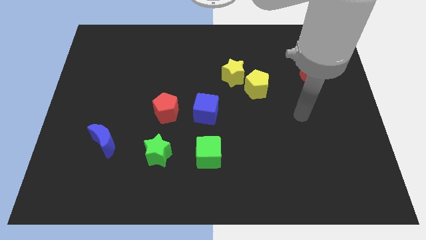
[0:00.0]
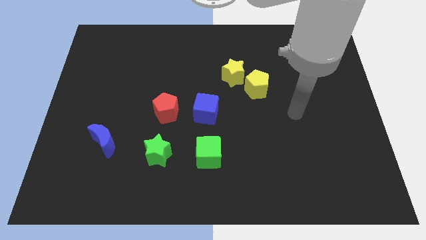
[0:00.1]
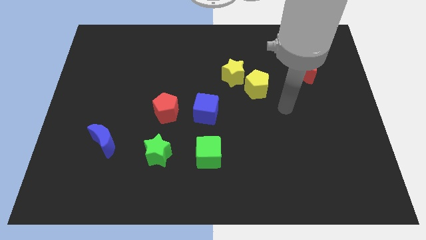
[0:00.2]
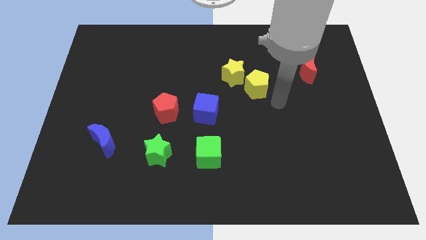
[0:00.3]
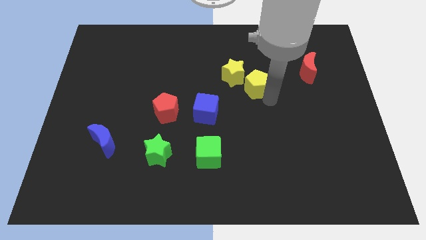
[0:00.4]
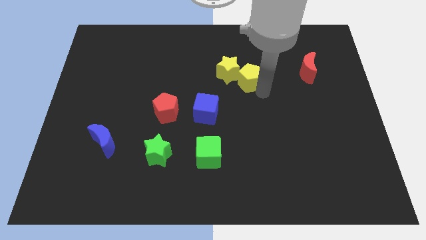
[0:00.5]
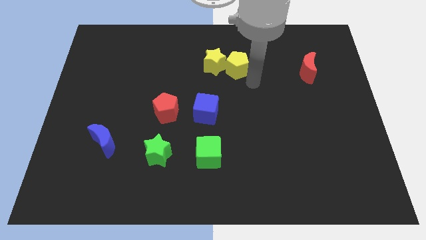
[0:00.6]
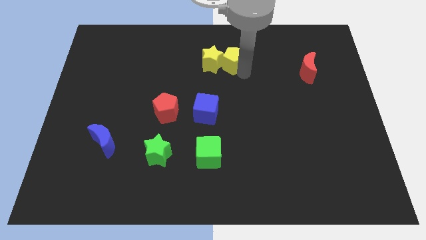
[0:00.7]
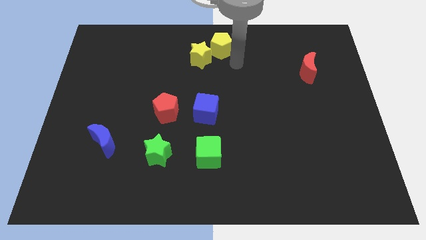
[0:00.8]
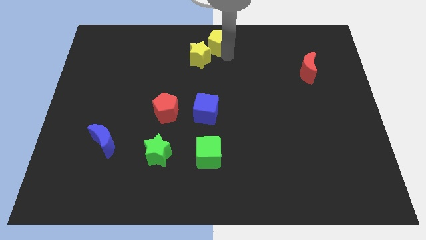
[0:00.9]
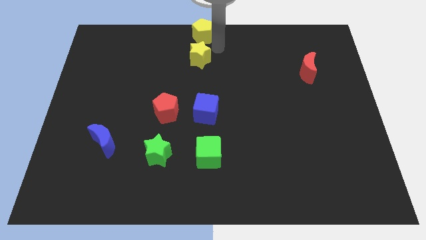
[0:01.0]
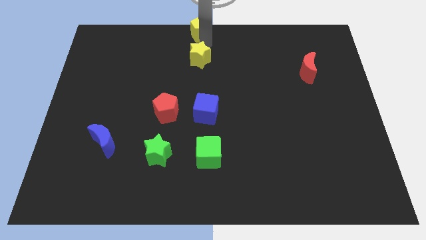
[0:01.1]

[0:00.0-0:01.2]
separate the yellow star from the yellow pentagon

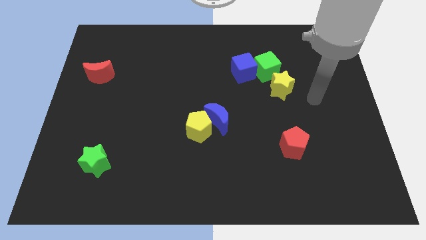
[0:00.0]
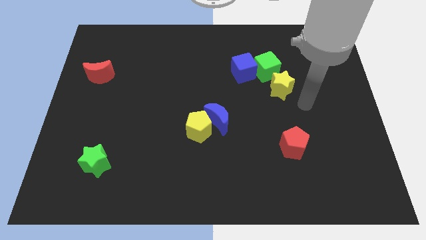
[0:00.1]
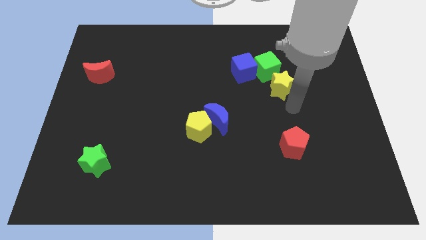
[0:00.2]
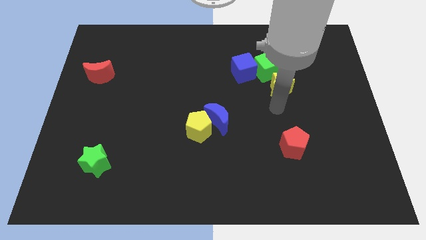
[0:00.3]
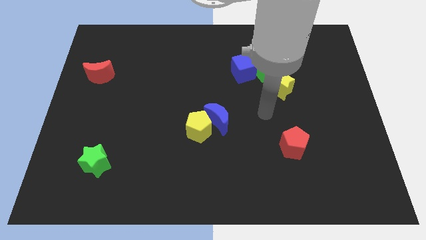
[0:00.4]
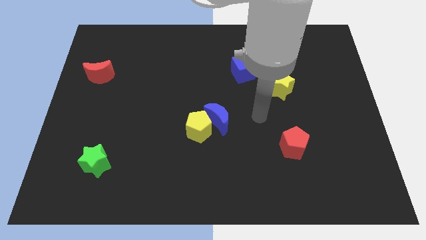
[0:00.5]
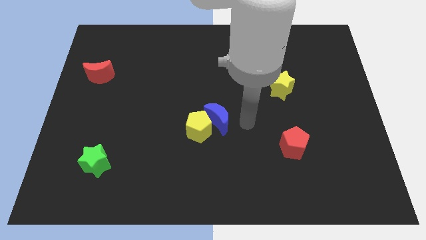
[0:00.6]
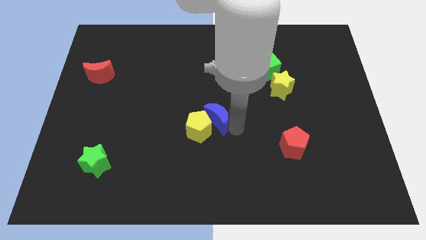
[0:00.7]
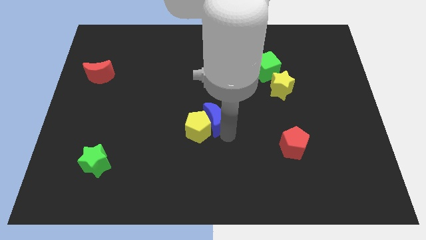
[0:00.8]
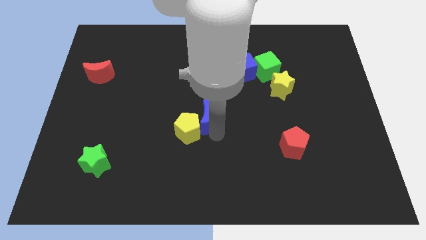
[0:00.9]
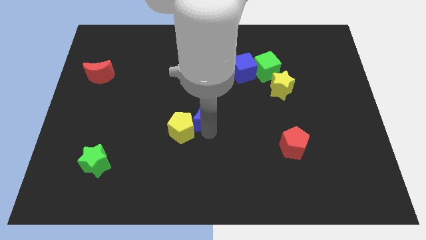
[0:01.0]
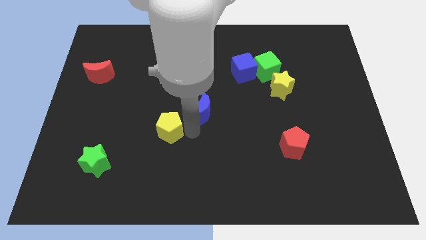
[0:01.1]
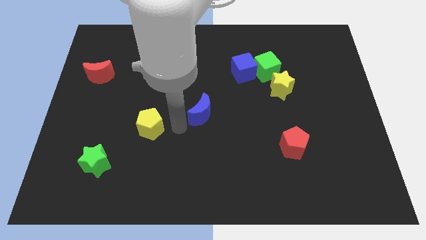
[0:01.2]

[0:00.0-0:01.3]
pull the blue moon apart from the yellow pentagon

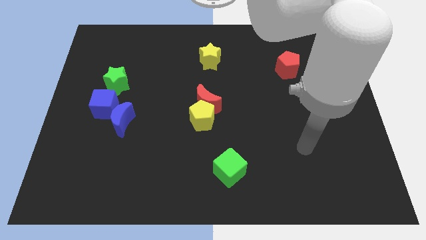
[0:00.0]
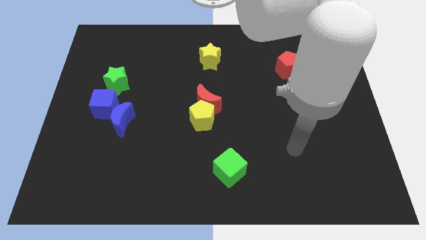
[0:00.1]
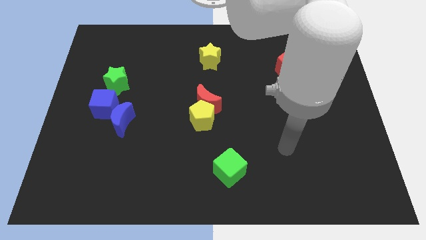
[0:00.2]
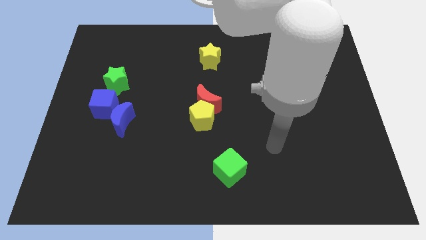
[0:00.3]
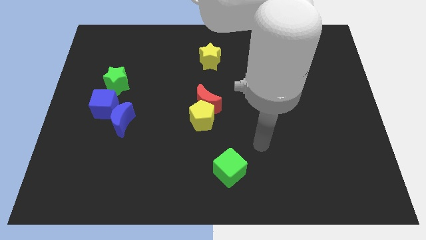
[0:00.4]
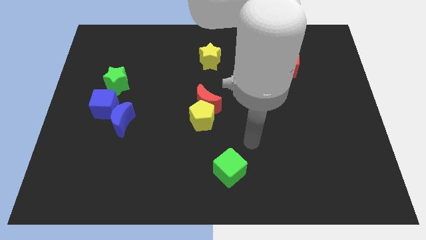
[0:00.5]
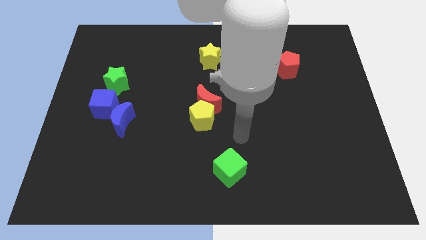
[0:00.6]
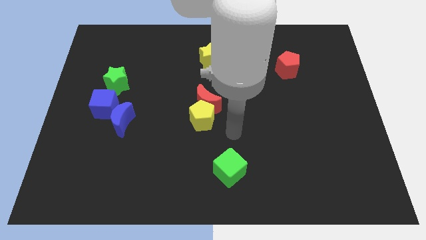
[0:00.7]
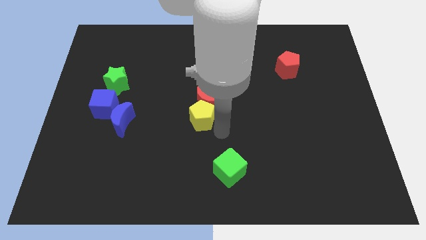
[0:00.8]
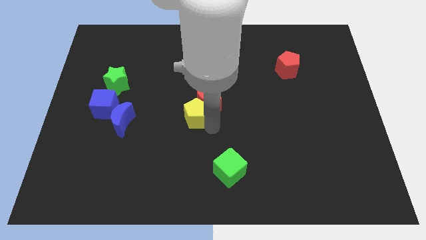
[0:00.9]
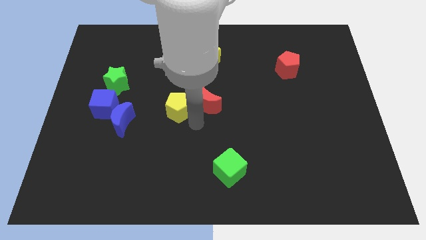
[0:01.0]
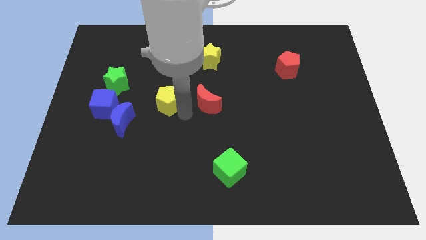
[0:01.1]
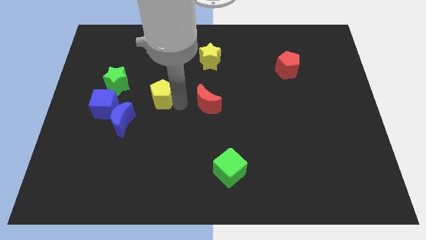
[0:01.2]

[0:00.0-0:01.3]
move the red moon away from the yellow pentagon

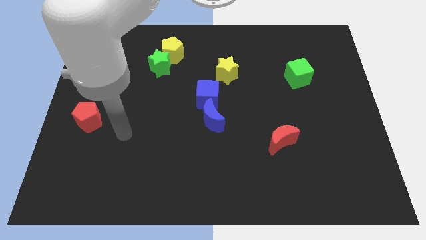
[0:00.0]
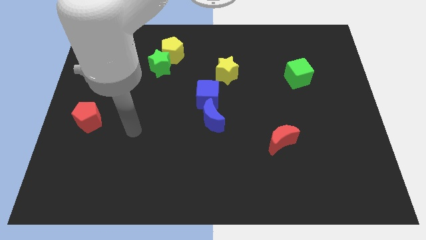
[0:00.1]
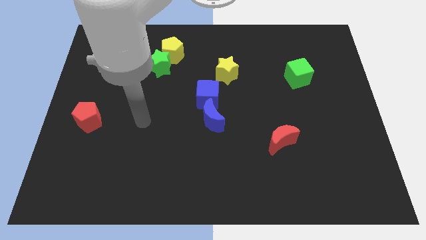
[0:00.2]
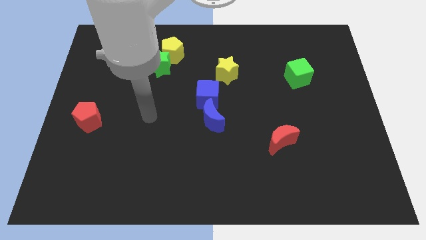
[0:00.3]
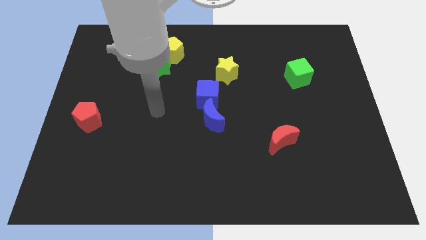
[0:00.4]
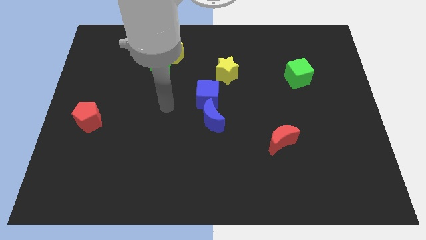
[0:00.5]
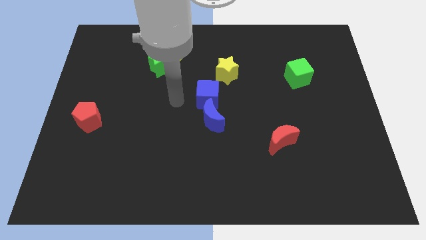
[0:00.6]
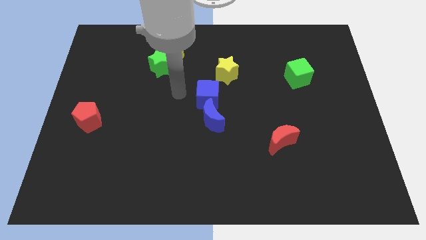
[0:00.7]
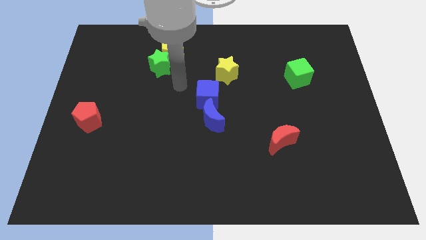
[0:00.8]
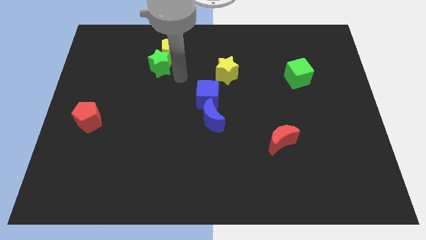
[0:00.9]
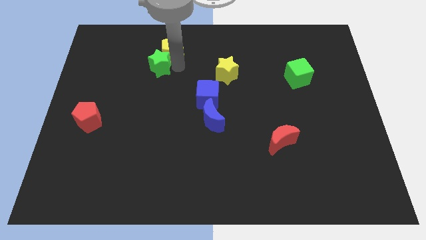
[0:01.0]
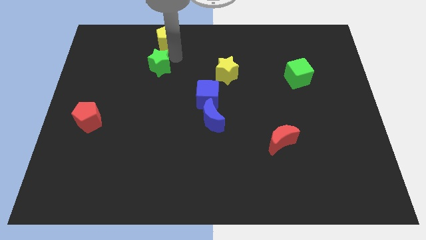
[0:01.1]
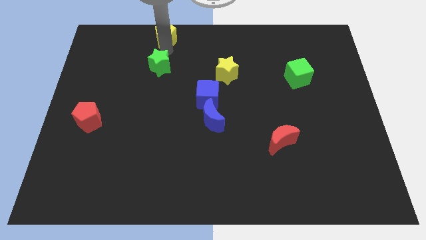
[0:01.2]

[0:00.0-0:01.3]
separate the green star from the yellow pentagon

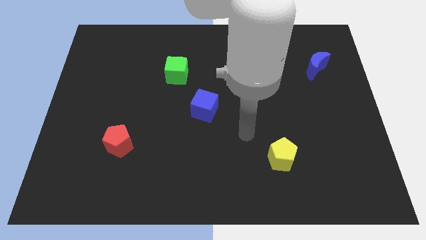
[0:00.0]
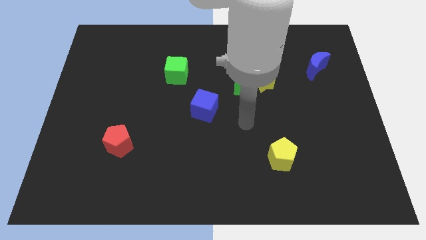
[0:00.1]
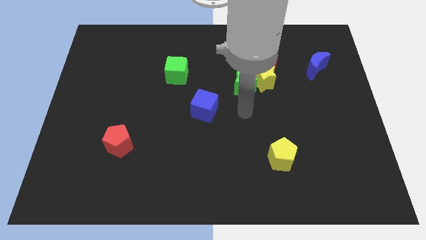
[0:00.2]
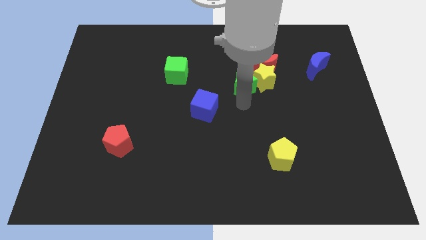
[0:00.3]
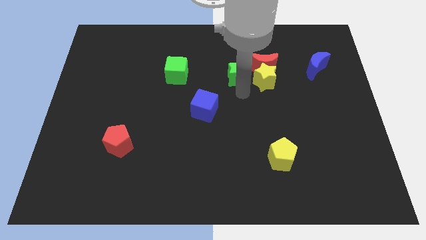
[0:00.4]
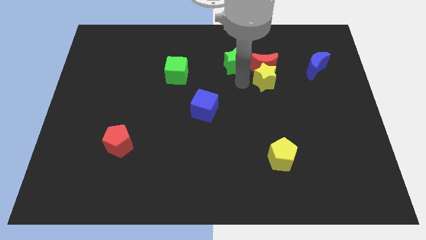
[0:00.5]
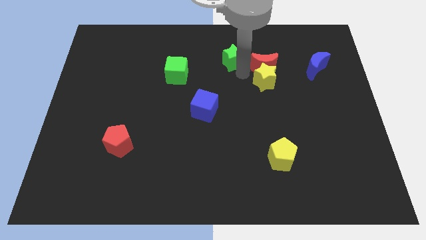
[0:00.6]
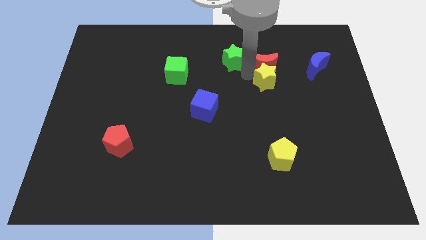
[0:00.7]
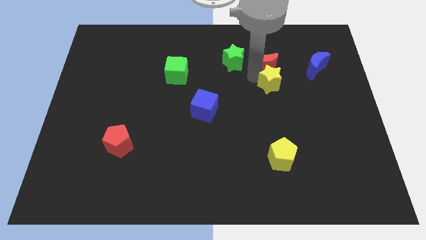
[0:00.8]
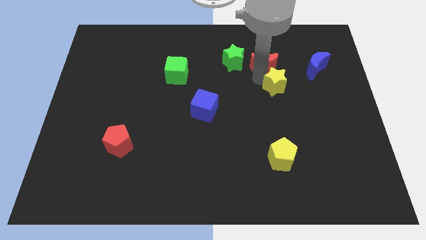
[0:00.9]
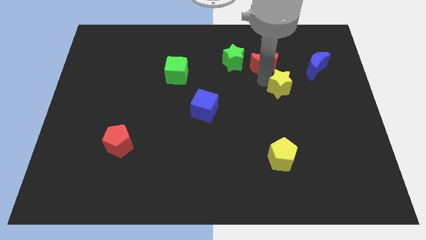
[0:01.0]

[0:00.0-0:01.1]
separate the yellow star from the red moon and green star

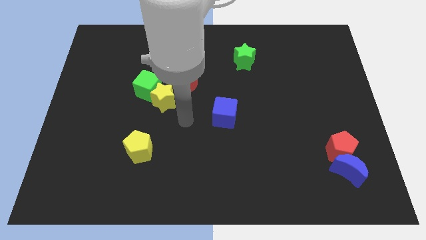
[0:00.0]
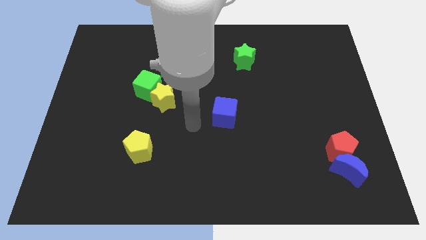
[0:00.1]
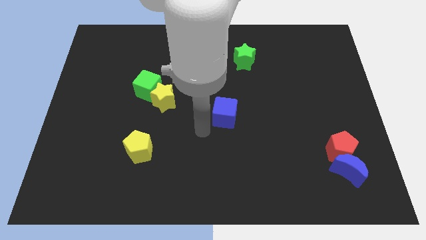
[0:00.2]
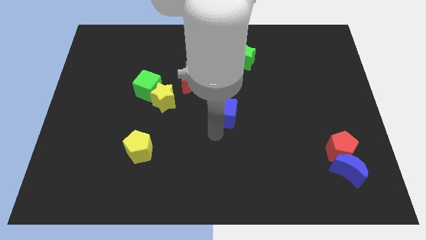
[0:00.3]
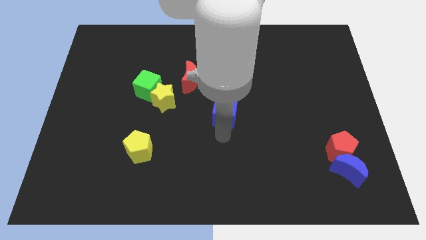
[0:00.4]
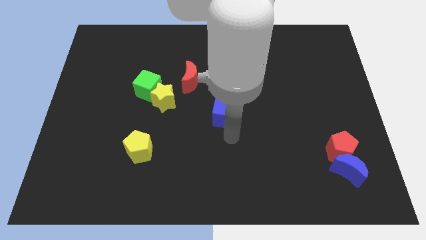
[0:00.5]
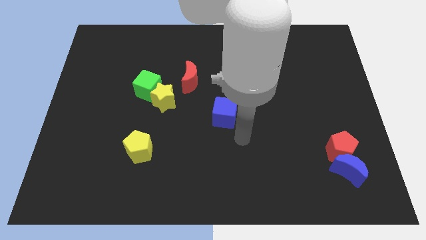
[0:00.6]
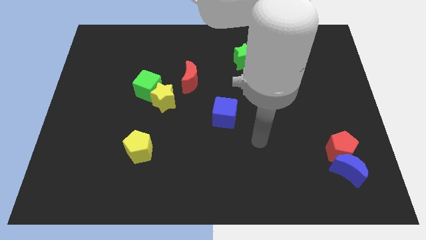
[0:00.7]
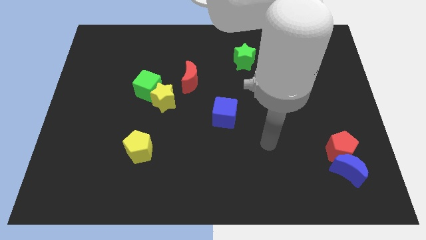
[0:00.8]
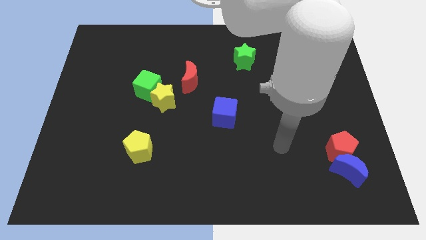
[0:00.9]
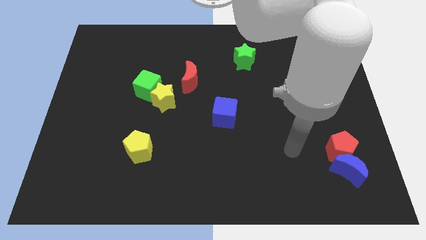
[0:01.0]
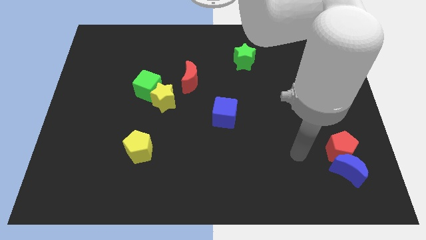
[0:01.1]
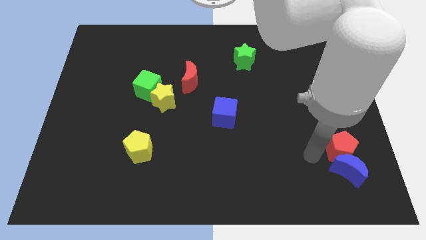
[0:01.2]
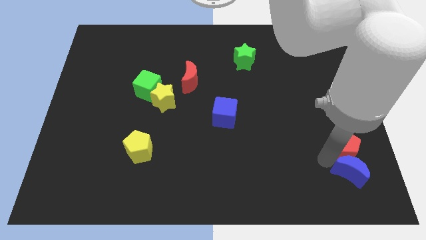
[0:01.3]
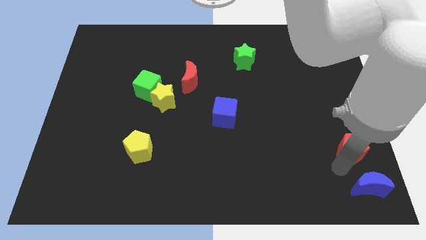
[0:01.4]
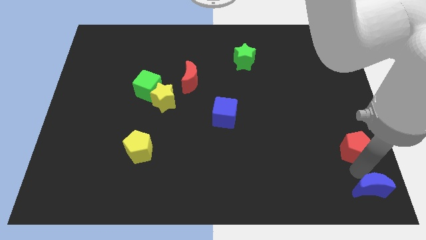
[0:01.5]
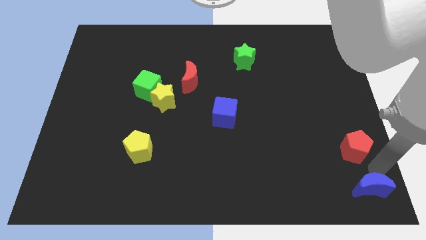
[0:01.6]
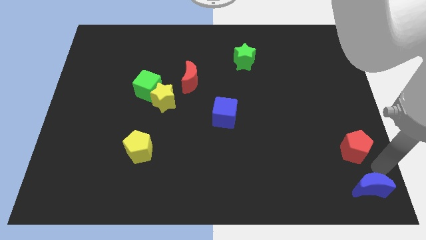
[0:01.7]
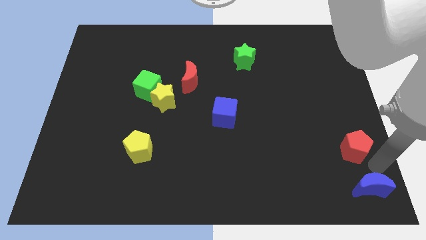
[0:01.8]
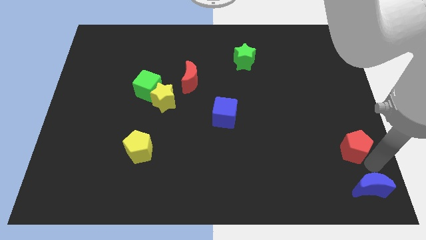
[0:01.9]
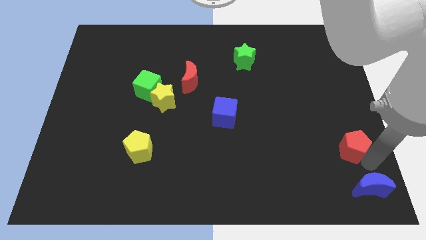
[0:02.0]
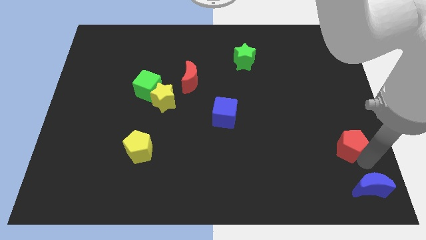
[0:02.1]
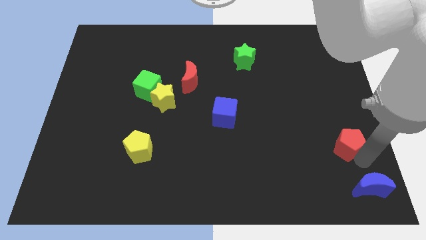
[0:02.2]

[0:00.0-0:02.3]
move the red pentagon away from the blue moon

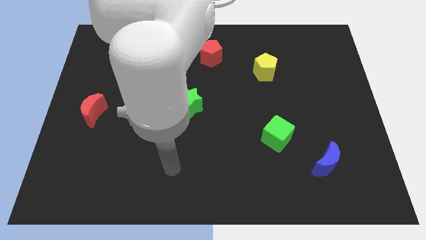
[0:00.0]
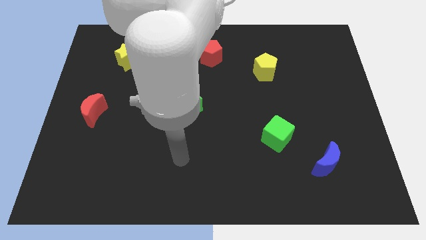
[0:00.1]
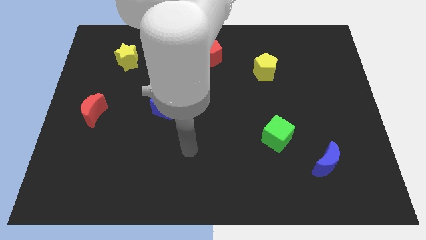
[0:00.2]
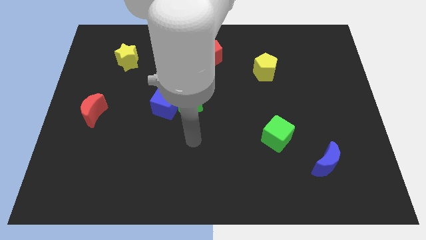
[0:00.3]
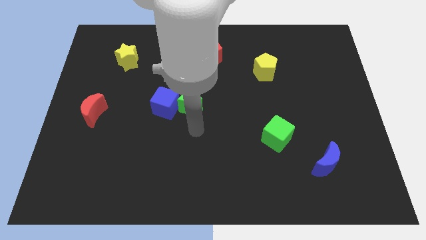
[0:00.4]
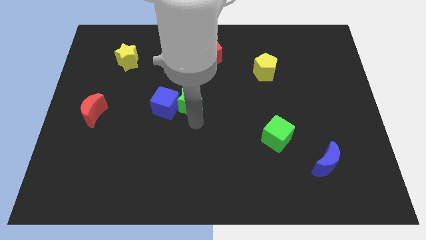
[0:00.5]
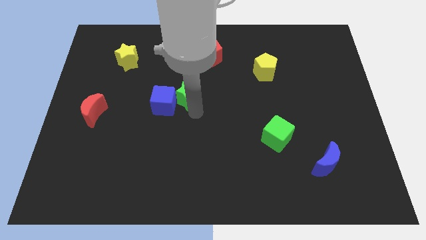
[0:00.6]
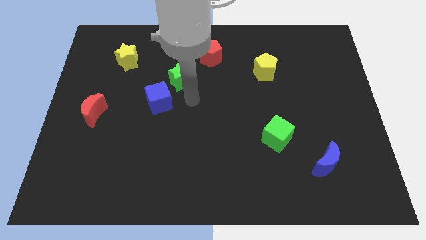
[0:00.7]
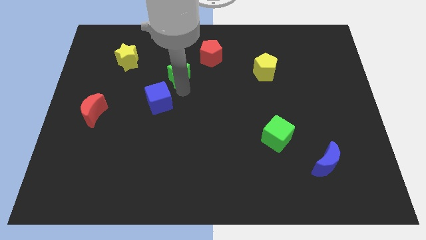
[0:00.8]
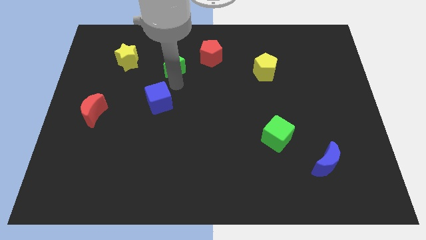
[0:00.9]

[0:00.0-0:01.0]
pull the blue cube apart from the green star
